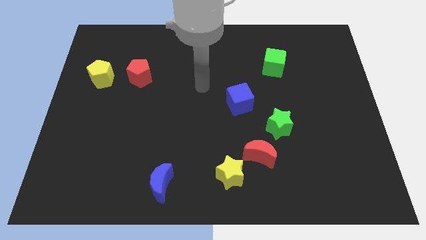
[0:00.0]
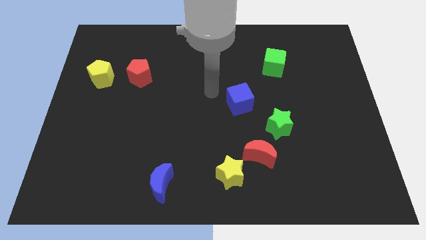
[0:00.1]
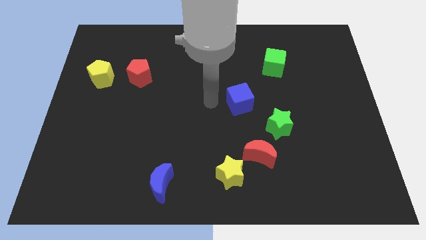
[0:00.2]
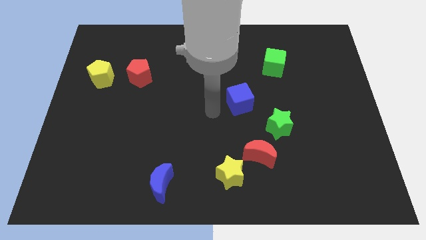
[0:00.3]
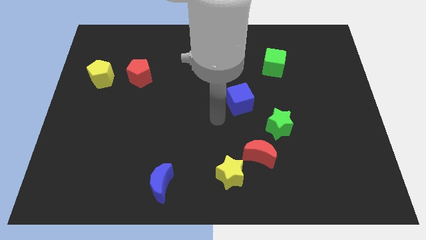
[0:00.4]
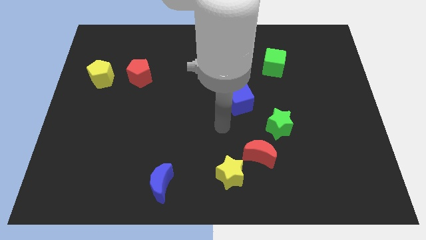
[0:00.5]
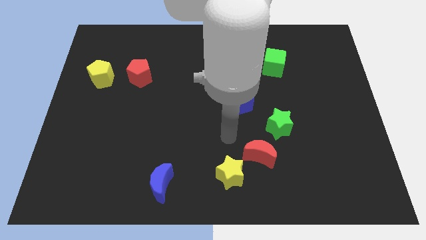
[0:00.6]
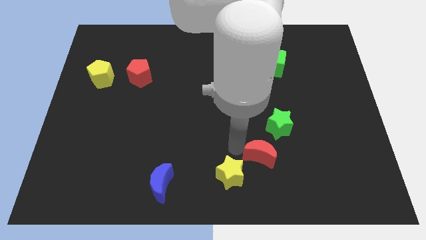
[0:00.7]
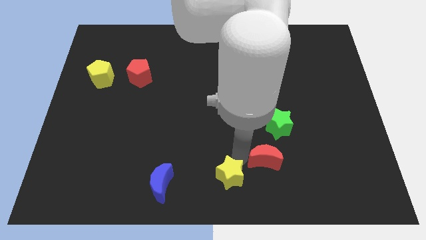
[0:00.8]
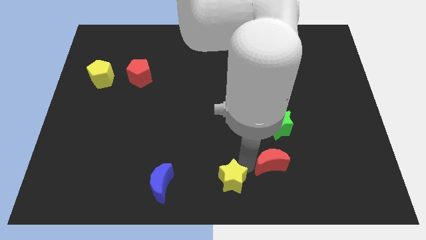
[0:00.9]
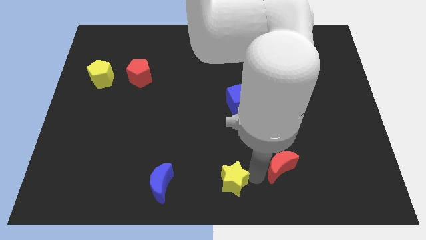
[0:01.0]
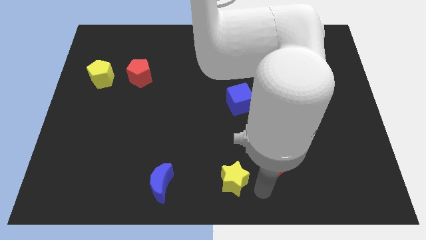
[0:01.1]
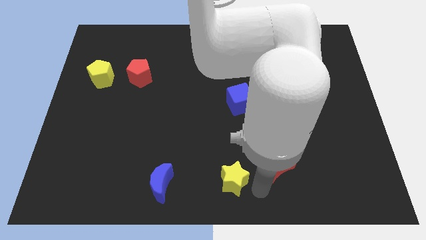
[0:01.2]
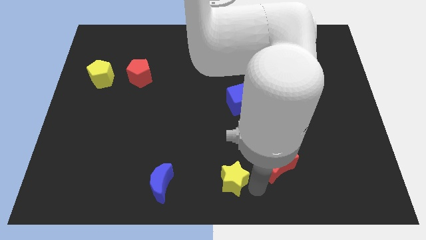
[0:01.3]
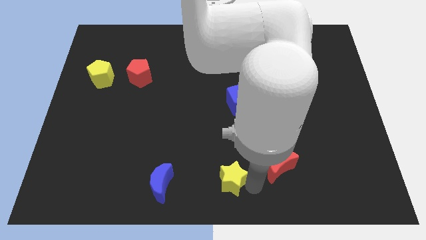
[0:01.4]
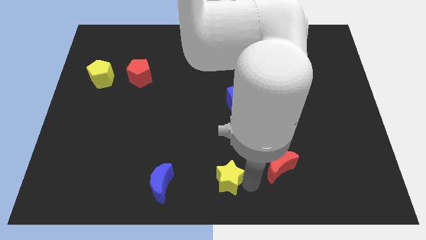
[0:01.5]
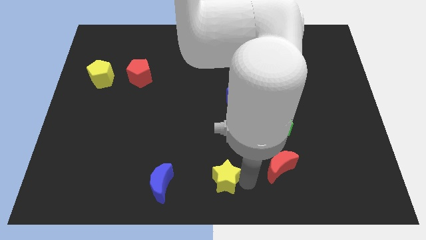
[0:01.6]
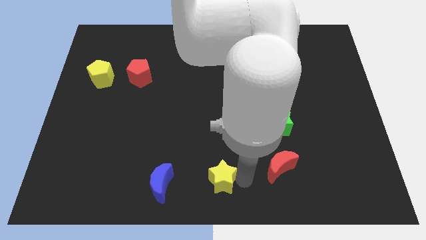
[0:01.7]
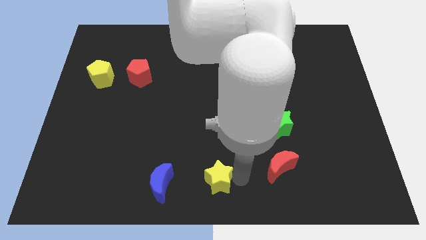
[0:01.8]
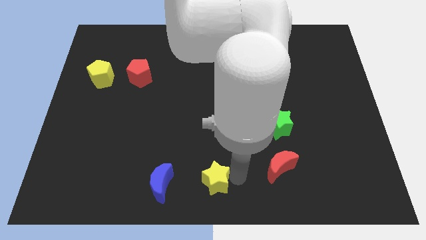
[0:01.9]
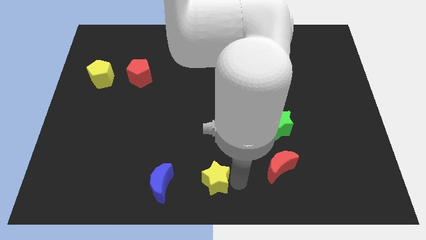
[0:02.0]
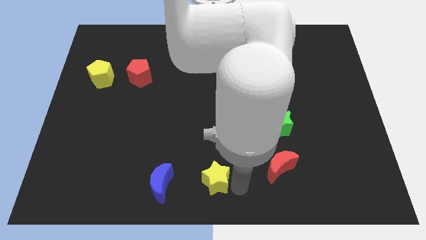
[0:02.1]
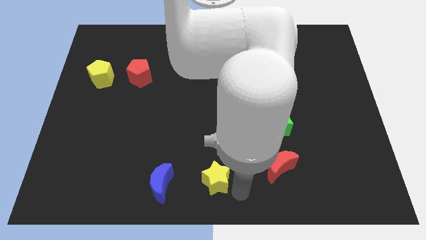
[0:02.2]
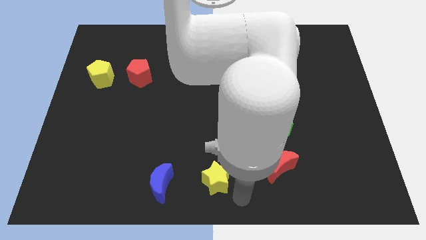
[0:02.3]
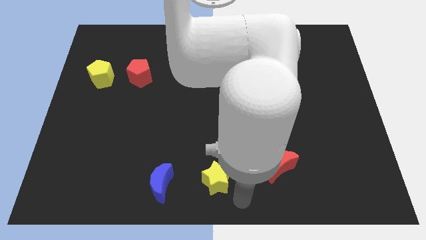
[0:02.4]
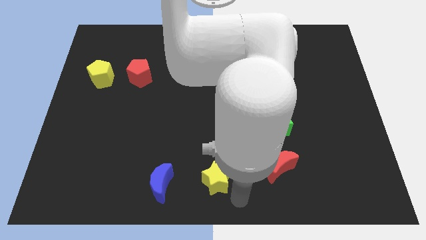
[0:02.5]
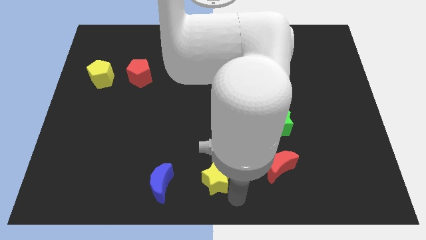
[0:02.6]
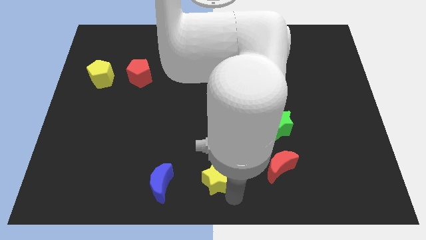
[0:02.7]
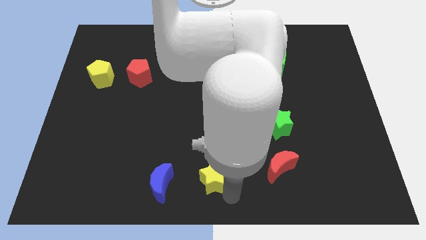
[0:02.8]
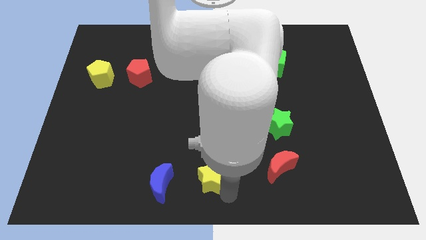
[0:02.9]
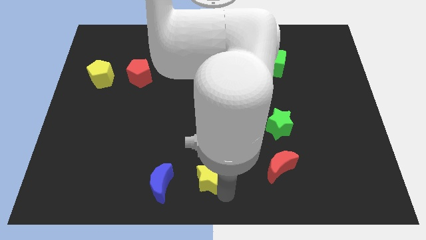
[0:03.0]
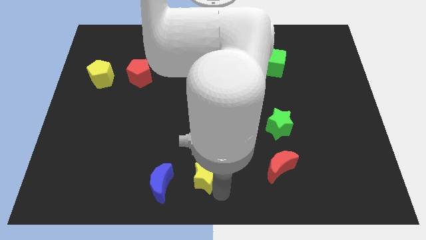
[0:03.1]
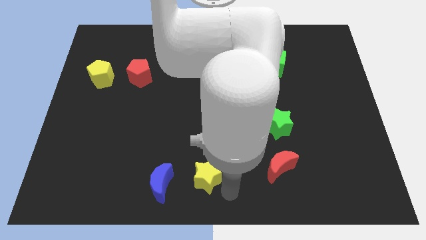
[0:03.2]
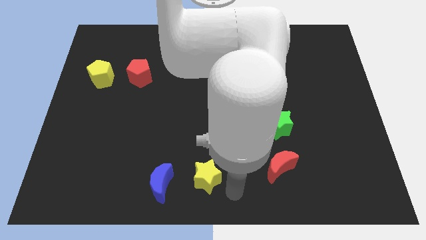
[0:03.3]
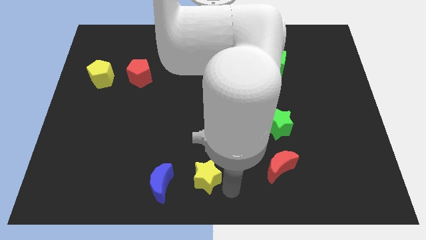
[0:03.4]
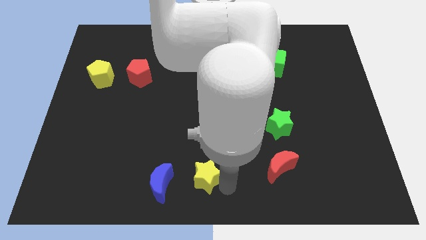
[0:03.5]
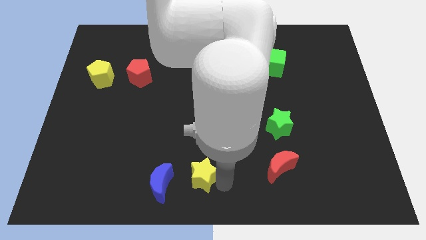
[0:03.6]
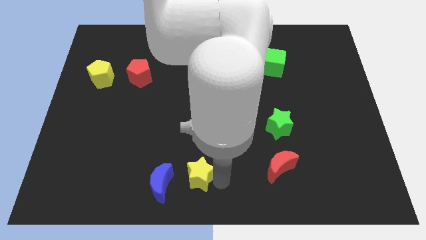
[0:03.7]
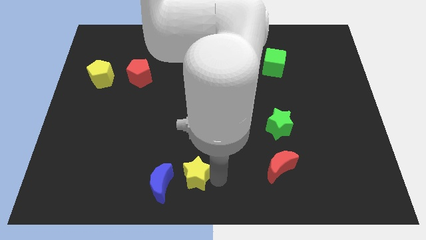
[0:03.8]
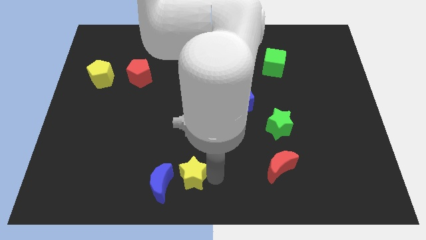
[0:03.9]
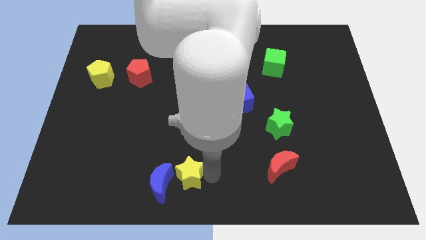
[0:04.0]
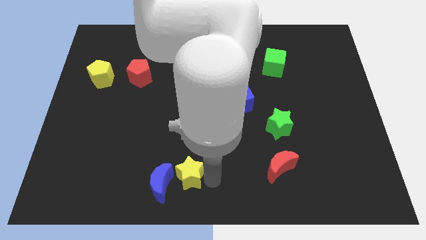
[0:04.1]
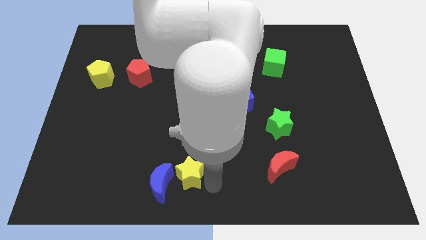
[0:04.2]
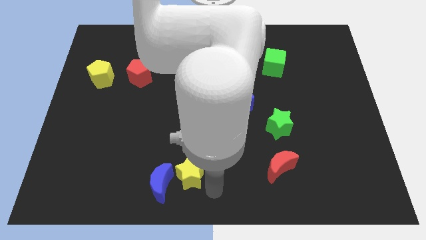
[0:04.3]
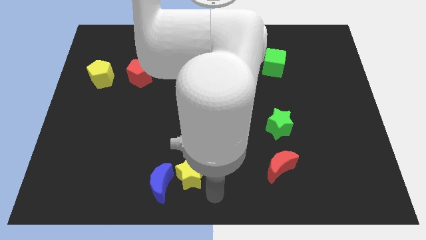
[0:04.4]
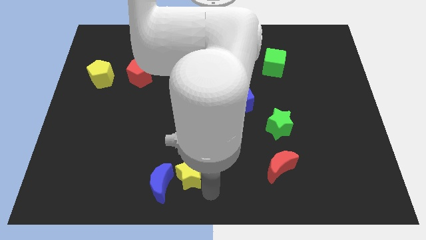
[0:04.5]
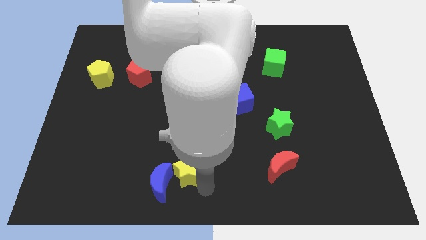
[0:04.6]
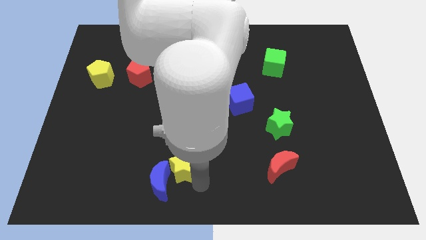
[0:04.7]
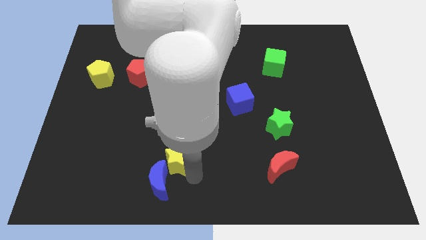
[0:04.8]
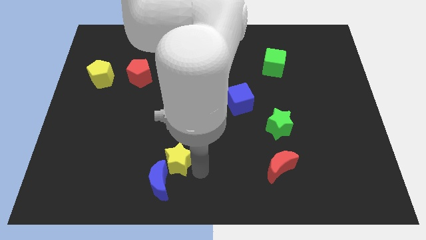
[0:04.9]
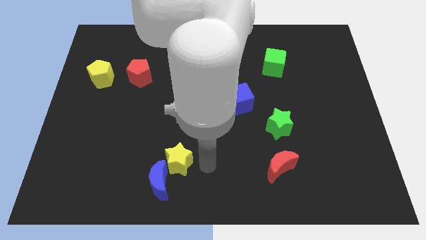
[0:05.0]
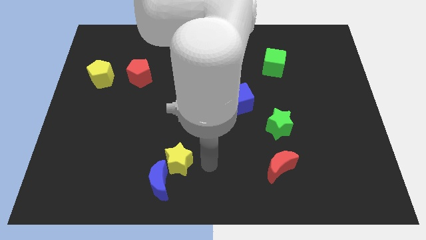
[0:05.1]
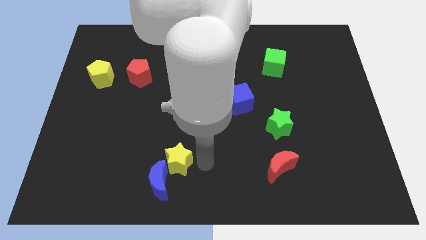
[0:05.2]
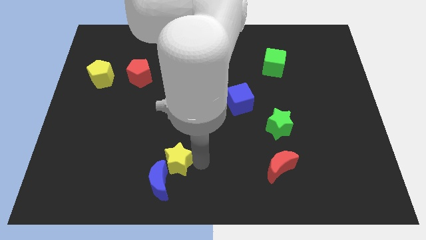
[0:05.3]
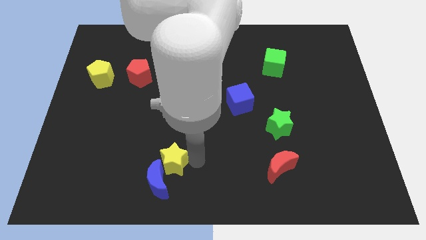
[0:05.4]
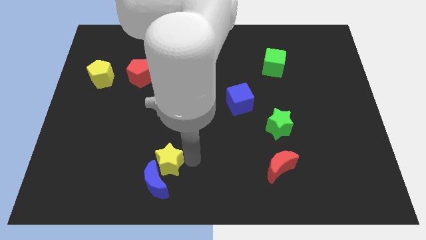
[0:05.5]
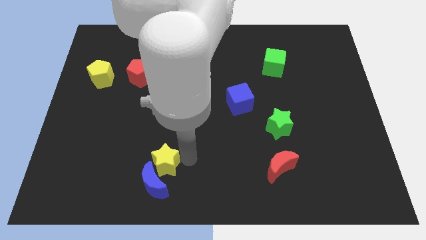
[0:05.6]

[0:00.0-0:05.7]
push the yellow star to the top left of the blue moon

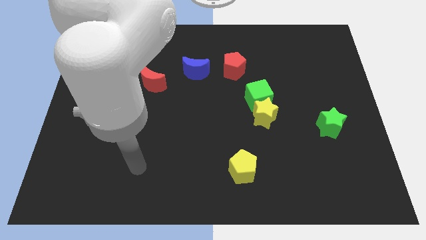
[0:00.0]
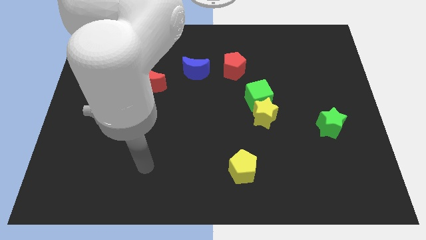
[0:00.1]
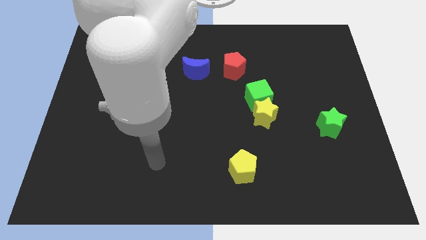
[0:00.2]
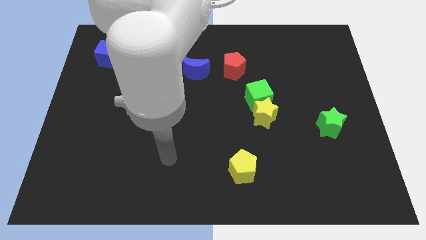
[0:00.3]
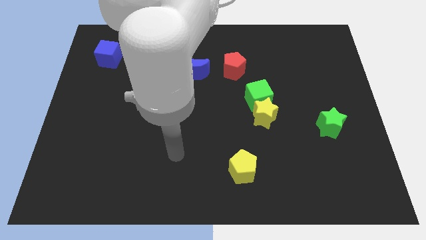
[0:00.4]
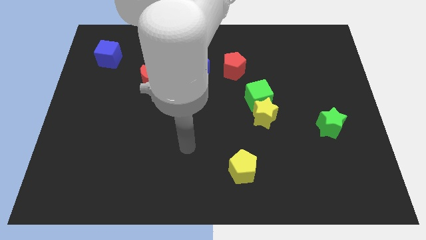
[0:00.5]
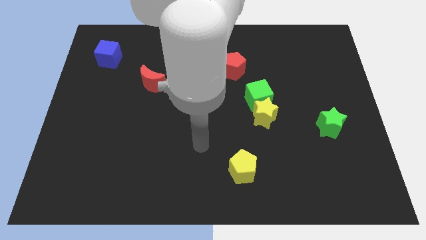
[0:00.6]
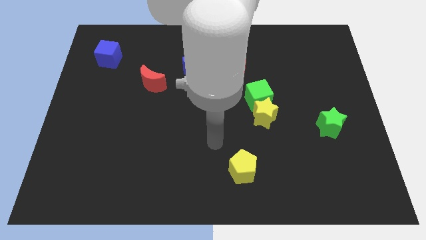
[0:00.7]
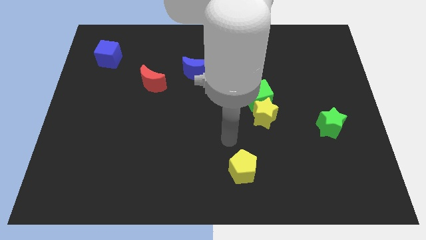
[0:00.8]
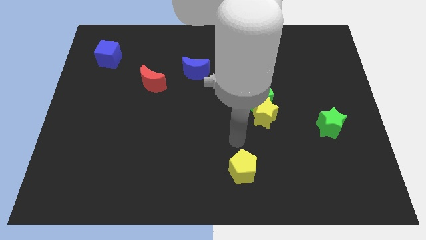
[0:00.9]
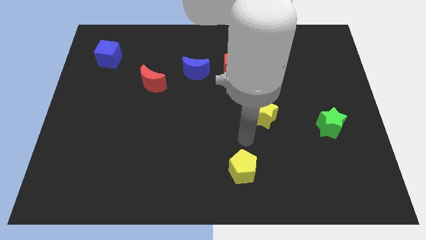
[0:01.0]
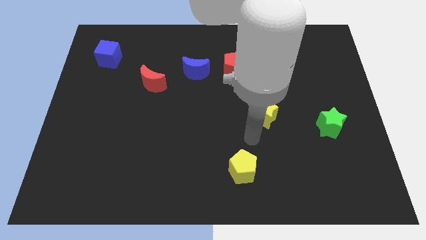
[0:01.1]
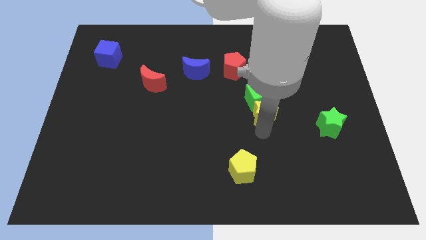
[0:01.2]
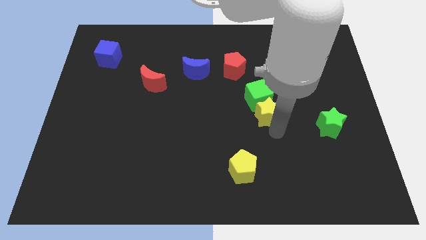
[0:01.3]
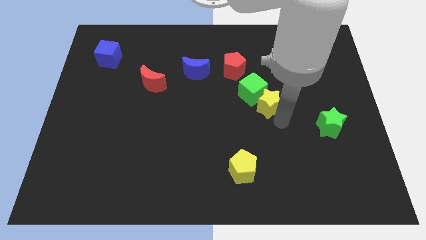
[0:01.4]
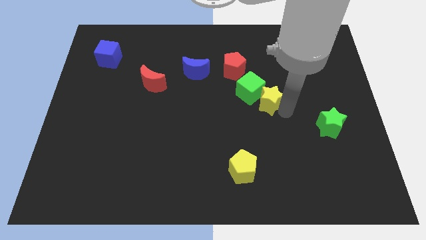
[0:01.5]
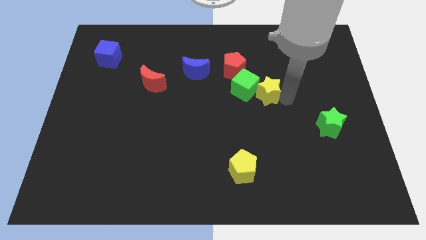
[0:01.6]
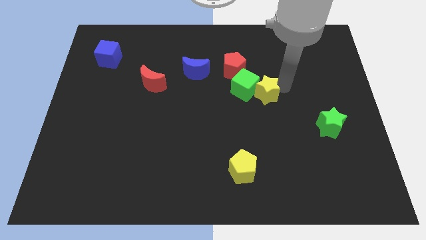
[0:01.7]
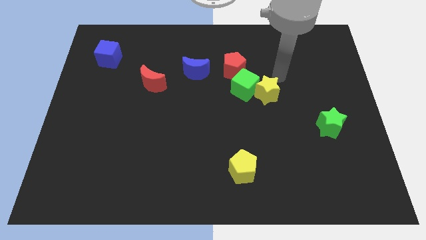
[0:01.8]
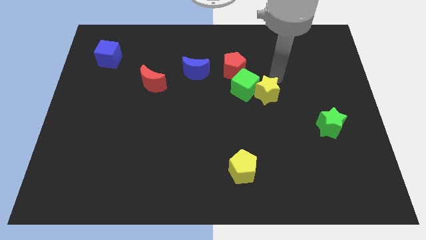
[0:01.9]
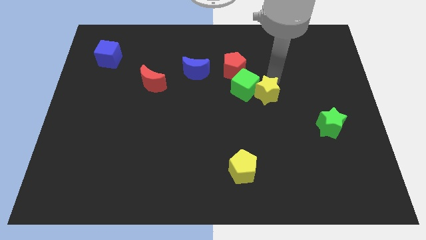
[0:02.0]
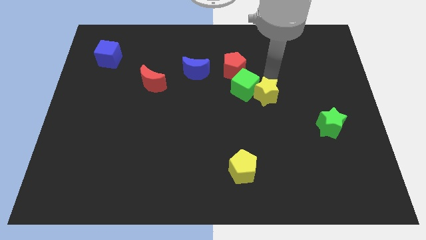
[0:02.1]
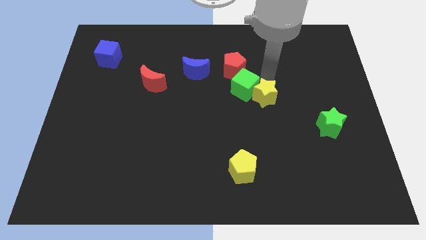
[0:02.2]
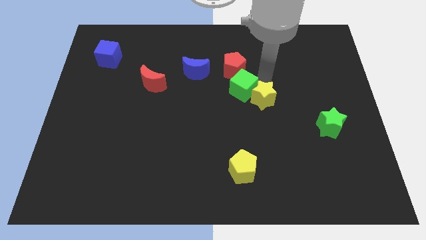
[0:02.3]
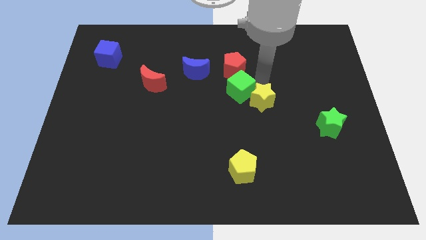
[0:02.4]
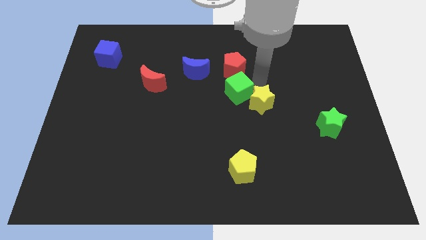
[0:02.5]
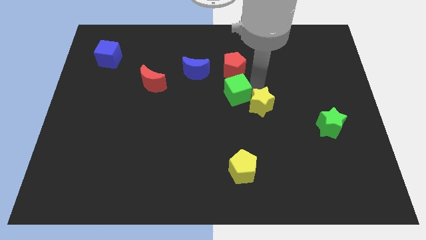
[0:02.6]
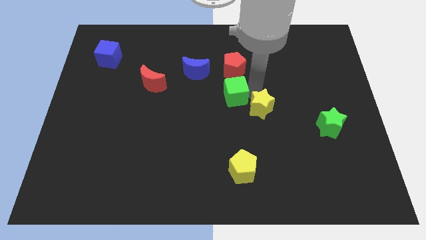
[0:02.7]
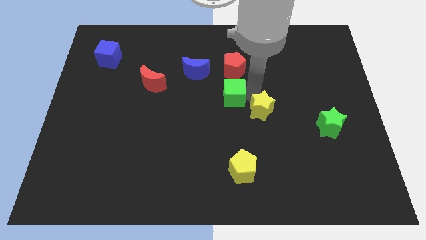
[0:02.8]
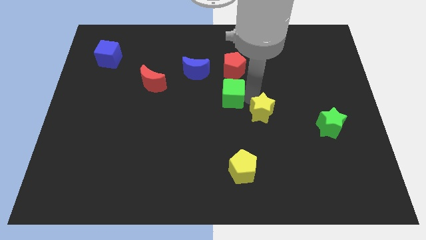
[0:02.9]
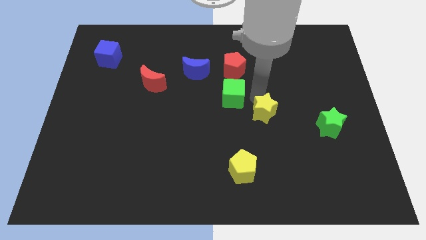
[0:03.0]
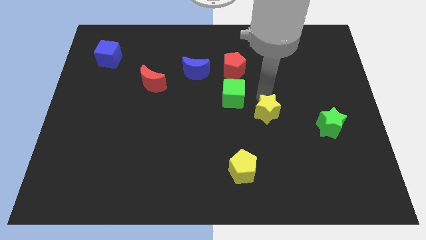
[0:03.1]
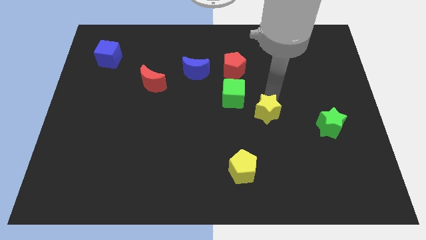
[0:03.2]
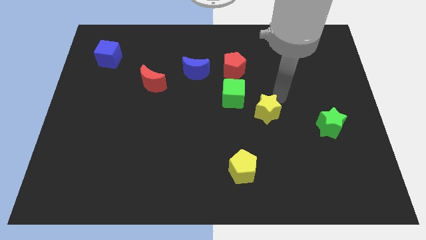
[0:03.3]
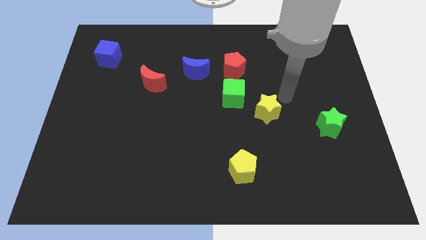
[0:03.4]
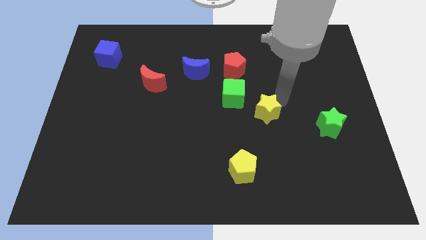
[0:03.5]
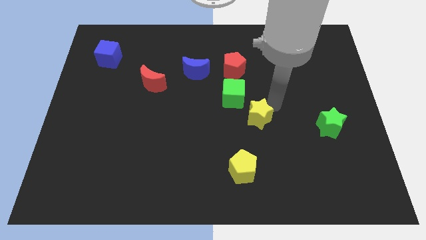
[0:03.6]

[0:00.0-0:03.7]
slide the yellow star above the yellow pentagon
